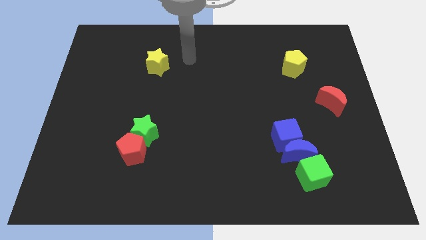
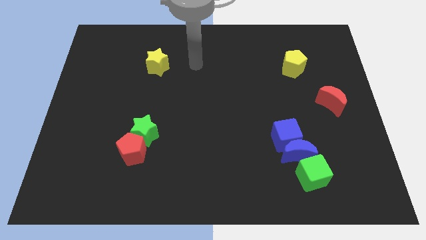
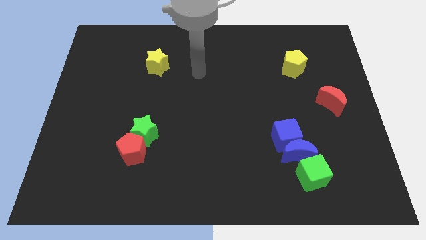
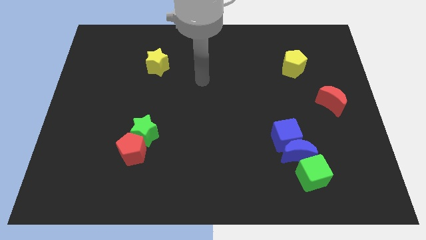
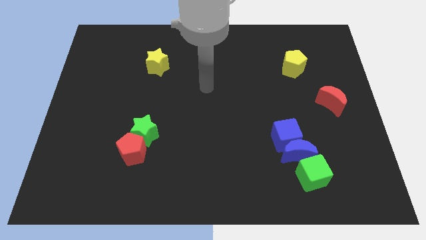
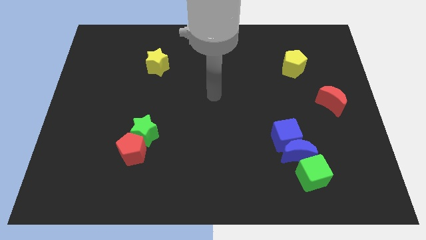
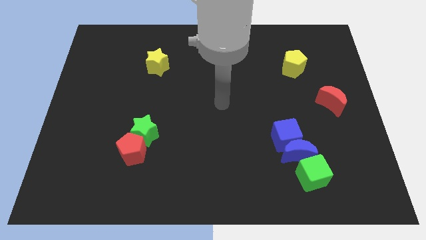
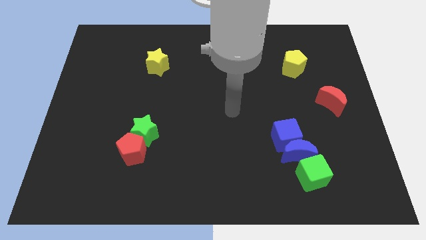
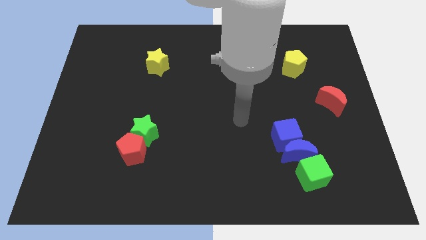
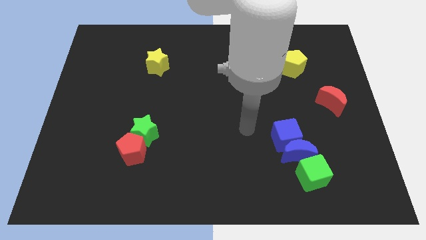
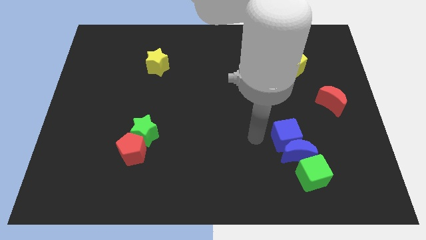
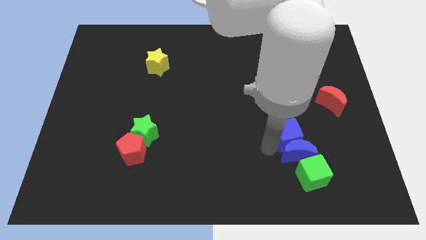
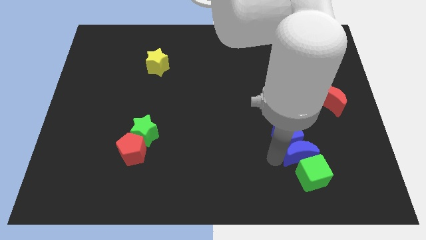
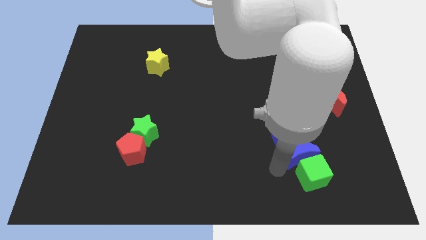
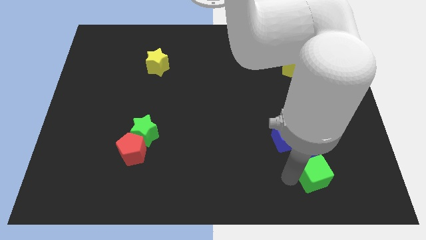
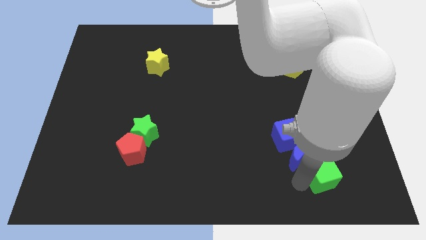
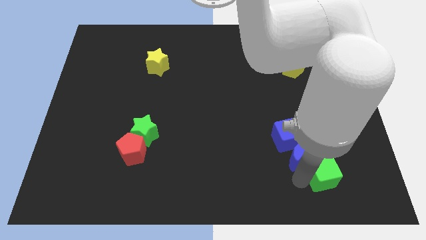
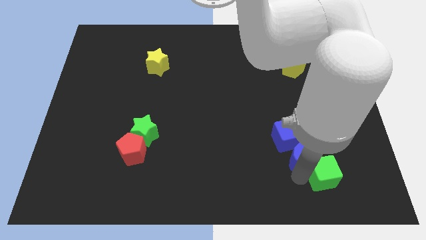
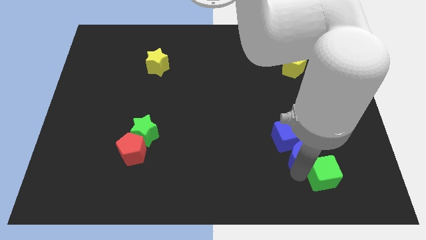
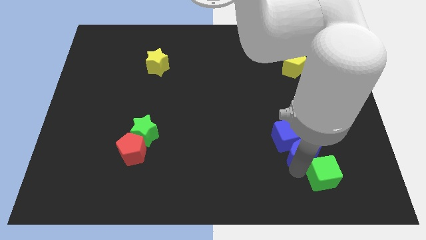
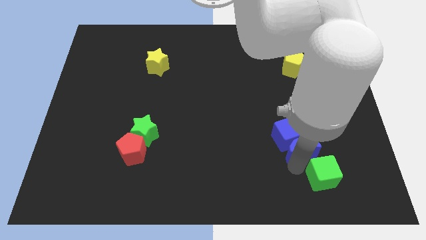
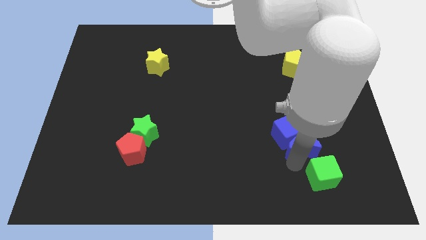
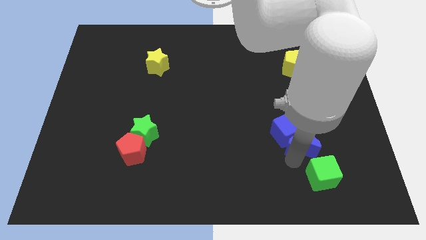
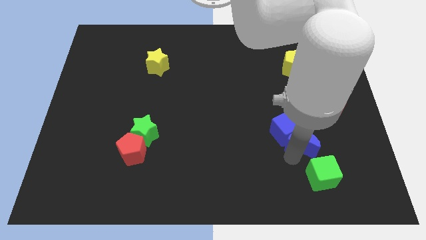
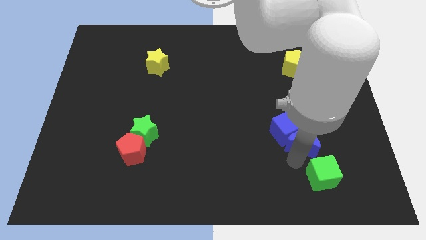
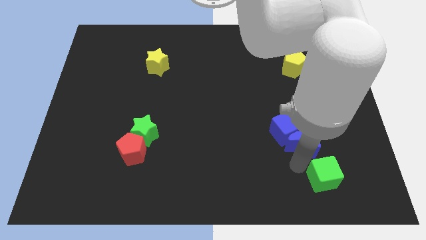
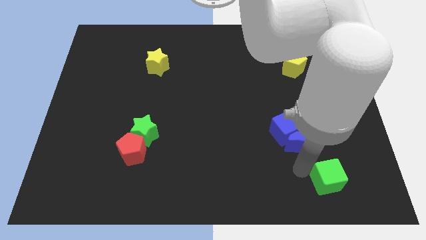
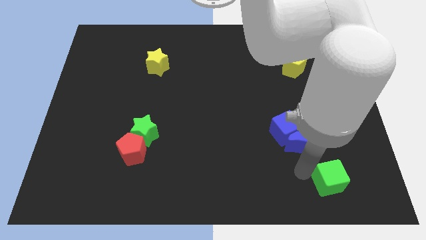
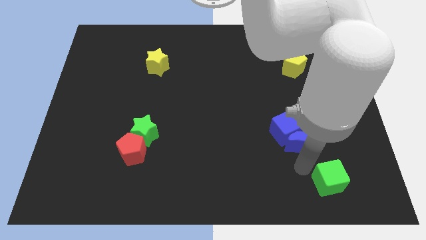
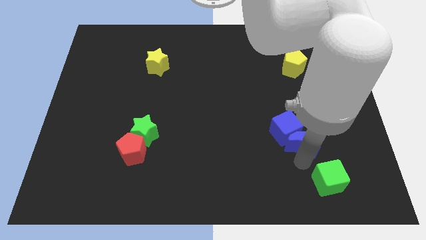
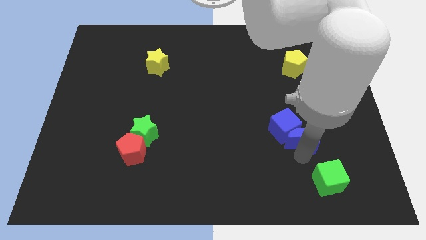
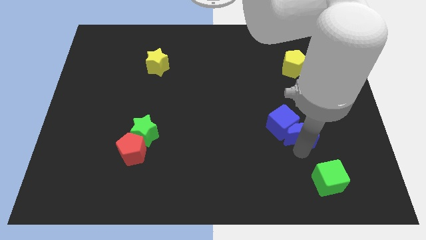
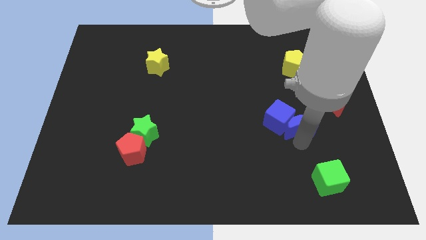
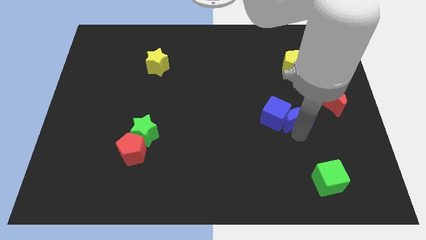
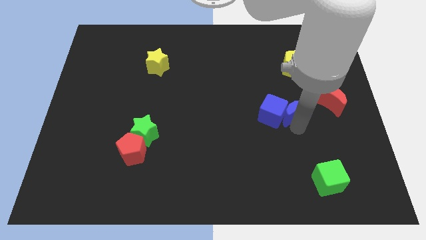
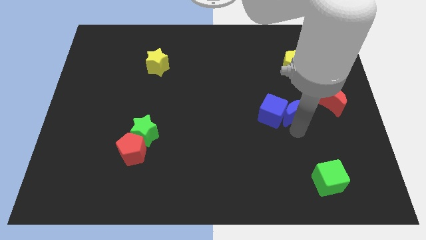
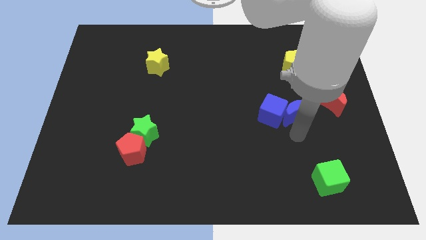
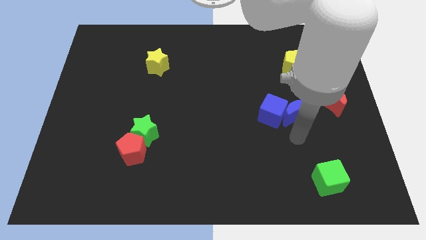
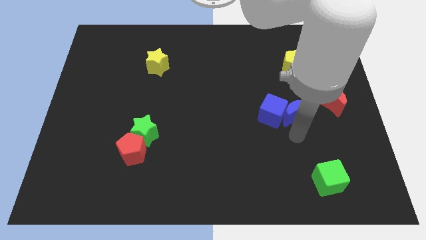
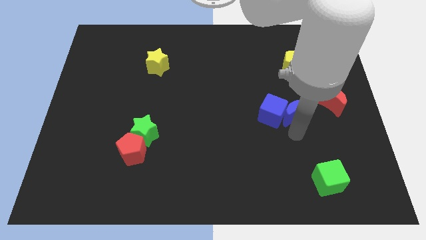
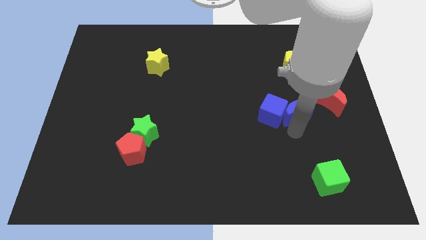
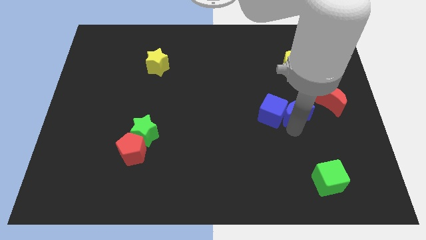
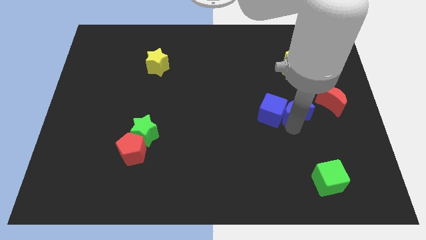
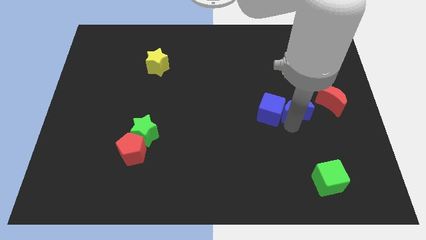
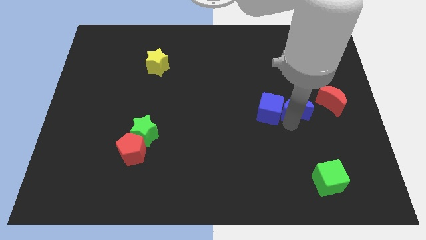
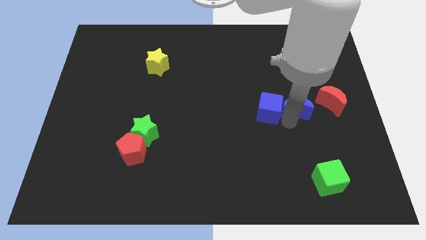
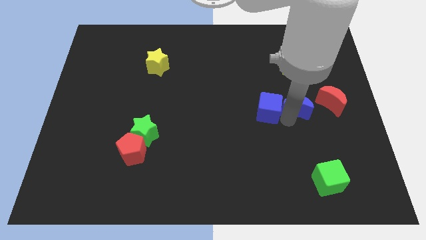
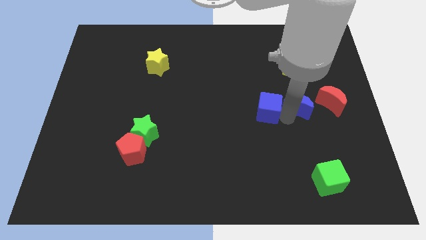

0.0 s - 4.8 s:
separate the blue moon from the blue cube and green cube

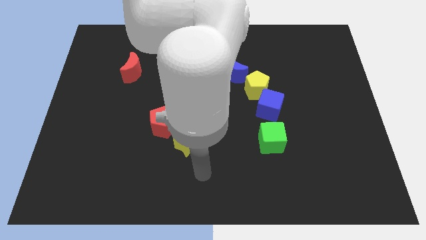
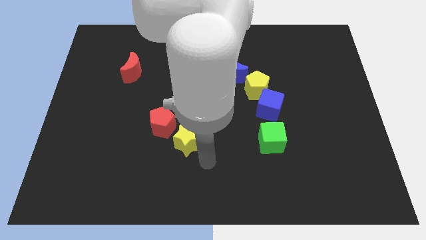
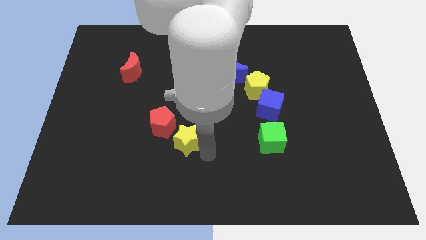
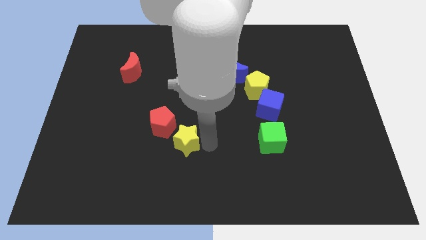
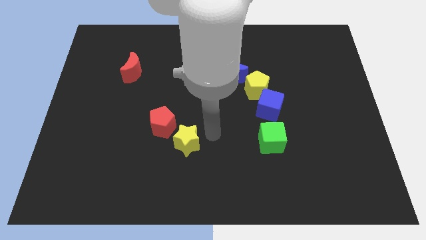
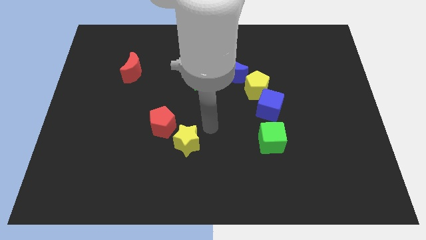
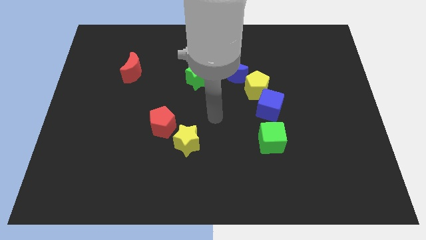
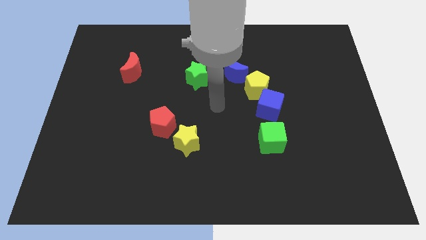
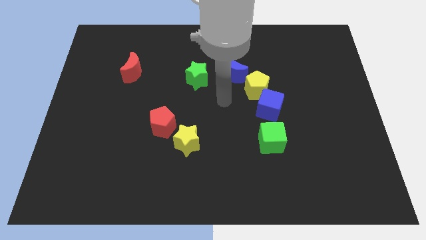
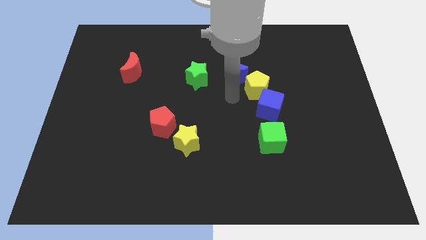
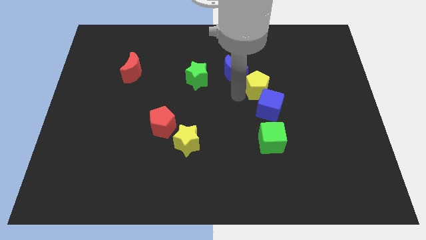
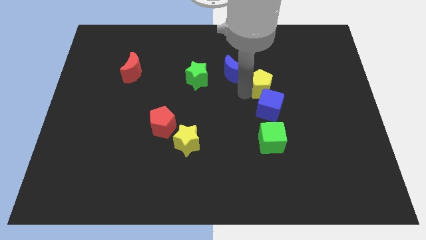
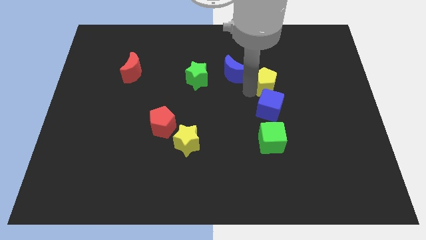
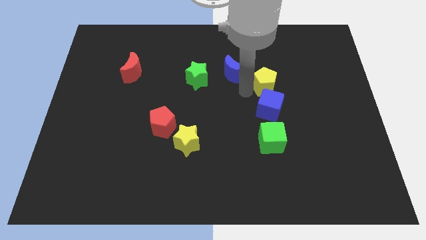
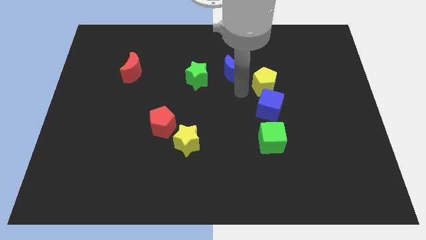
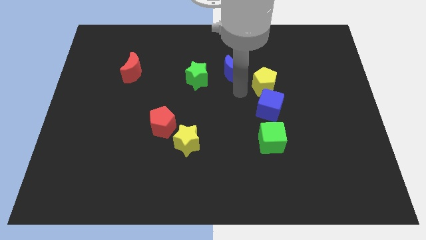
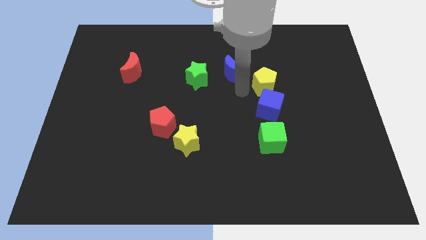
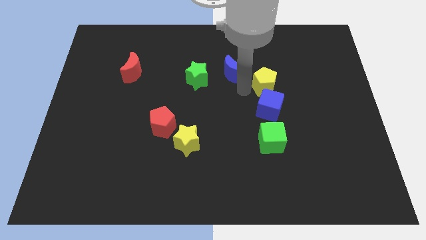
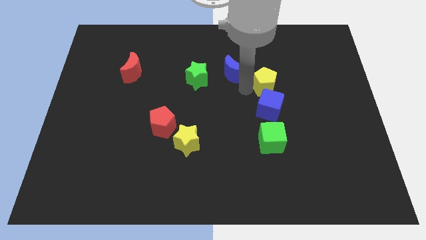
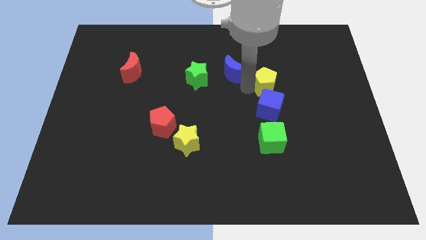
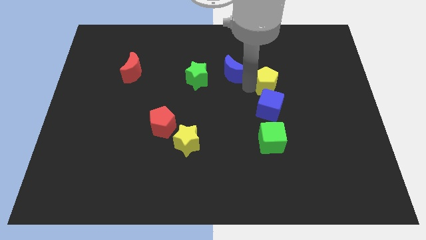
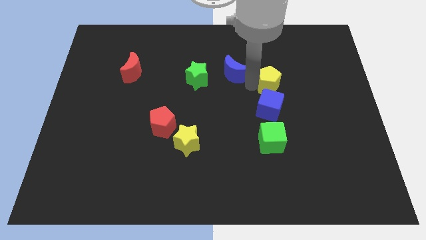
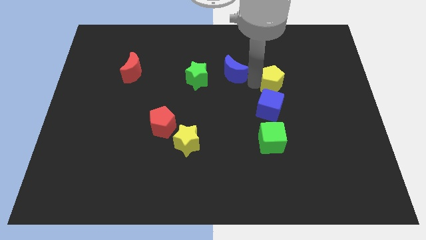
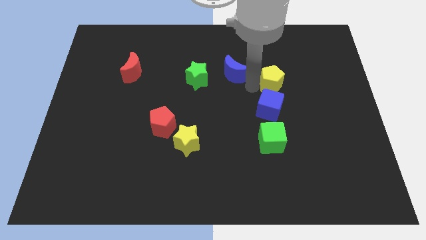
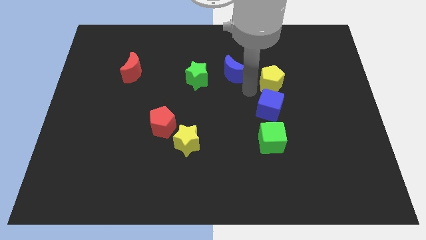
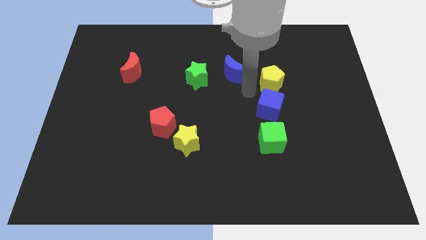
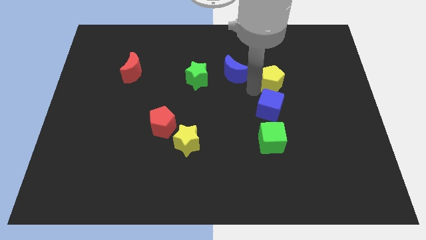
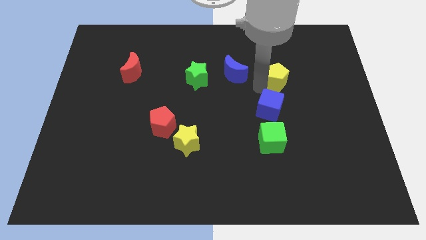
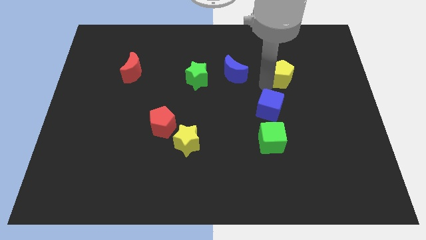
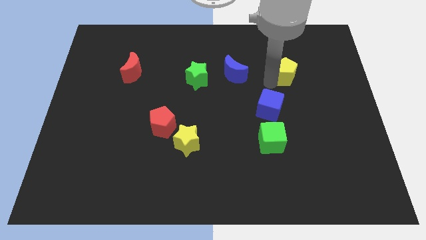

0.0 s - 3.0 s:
pull the yellow pentagon apart from the blue cube and blue moon

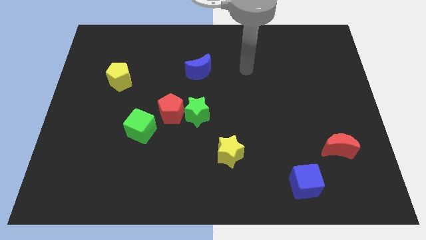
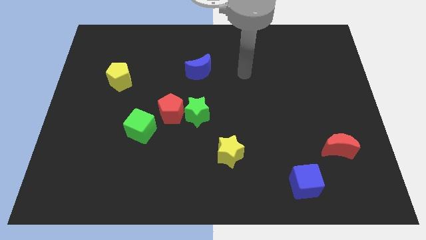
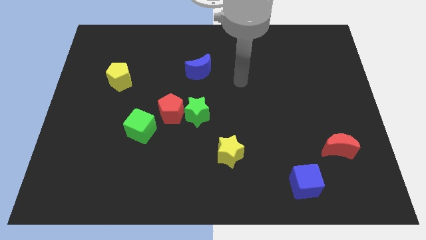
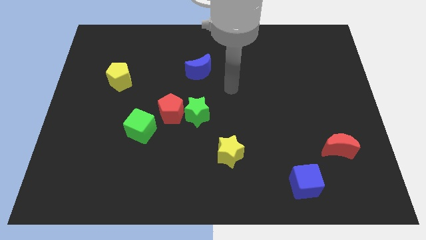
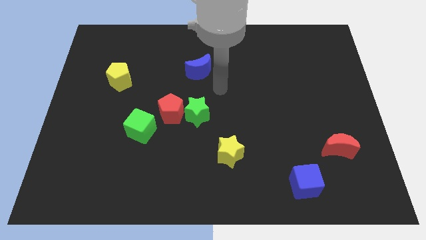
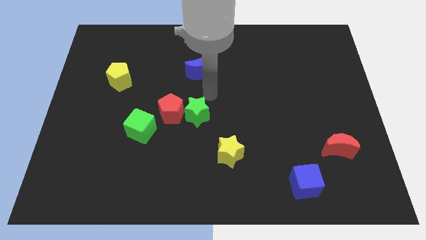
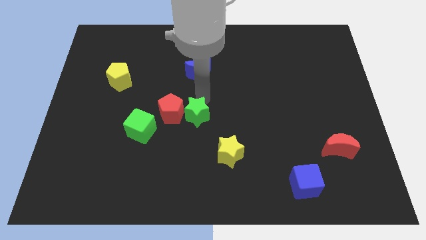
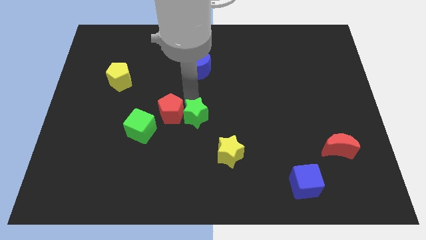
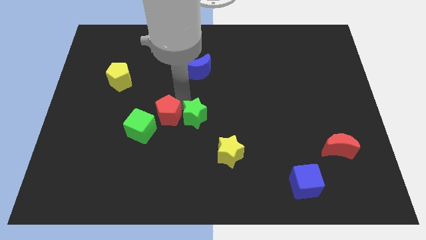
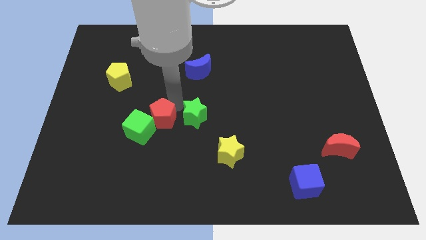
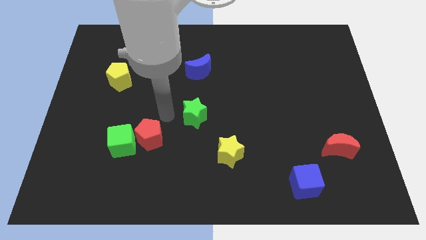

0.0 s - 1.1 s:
pull the green star apart from the red pentagon

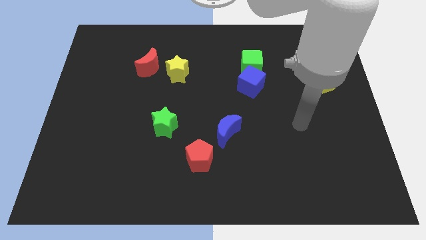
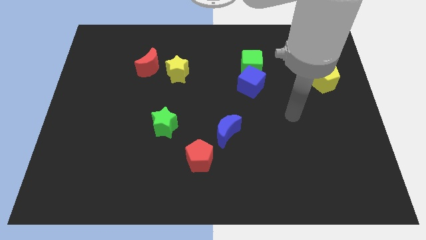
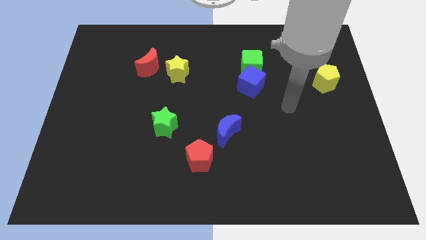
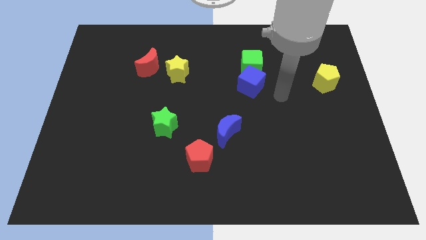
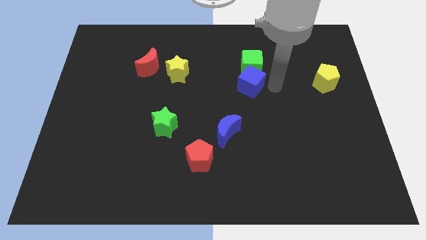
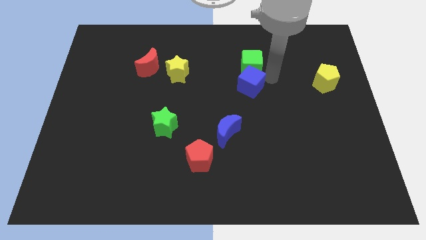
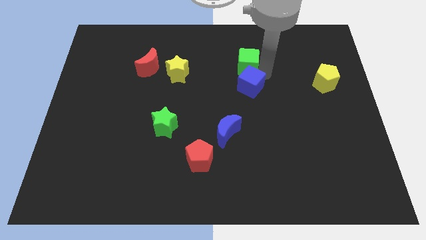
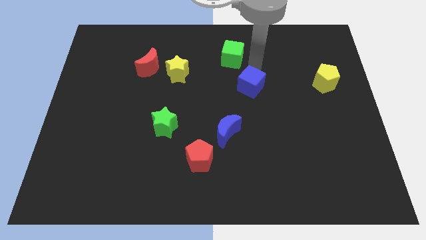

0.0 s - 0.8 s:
pull the blue cube apart from the green cube
